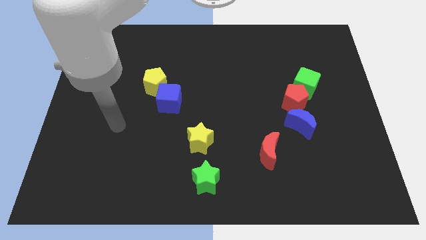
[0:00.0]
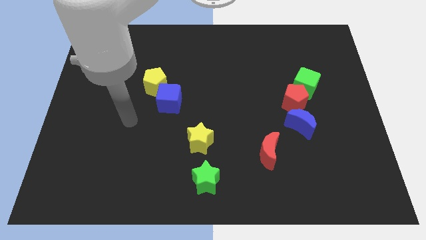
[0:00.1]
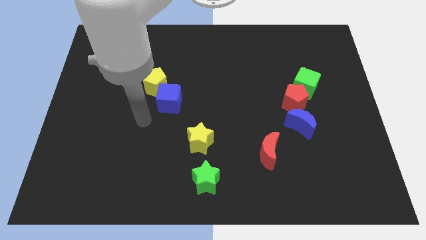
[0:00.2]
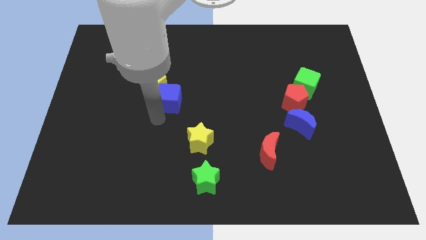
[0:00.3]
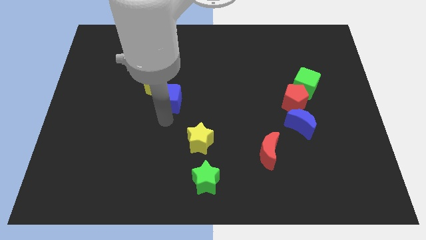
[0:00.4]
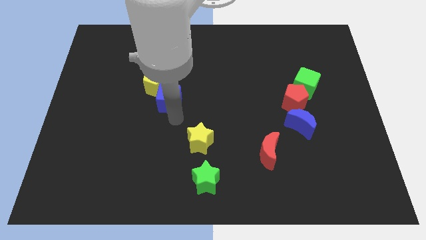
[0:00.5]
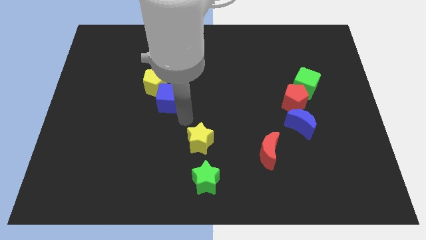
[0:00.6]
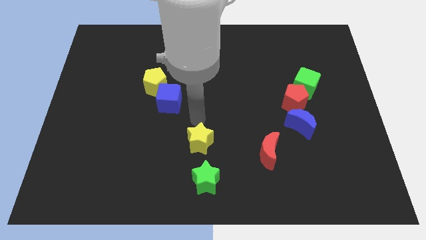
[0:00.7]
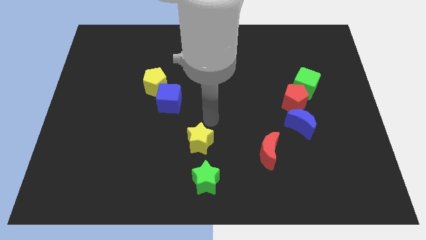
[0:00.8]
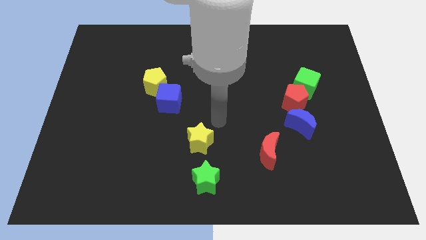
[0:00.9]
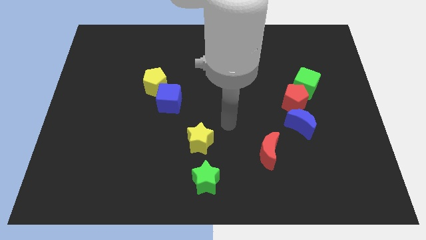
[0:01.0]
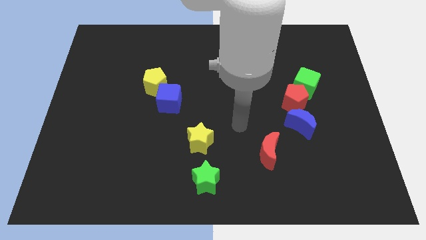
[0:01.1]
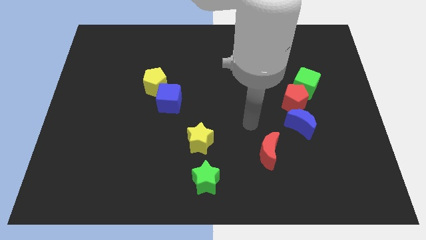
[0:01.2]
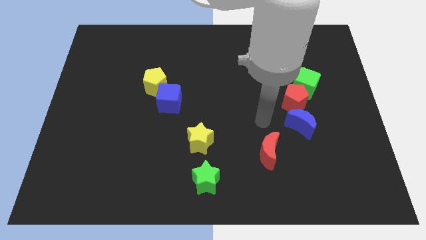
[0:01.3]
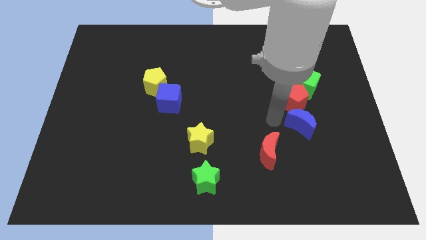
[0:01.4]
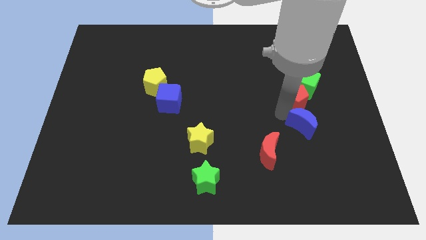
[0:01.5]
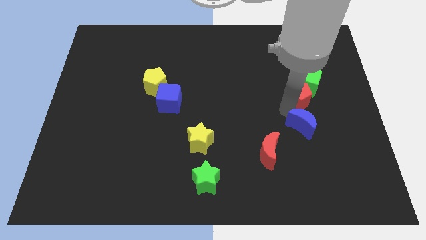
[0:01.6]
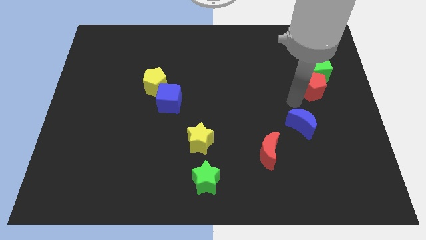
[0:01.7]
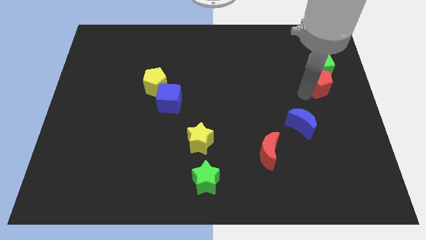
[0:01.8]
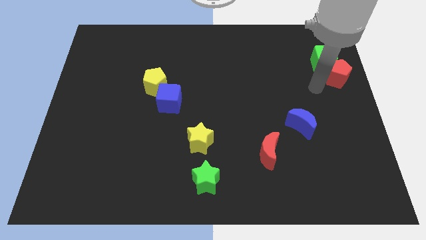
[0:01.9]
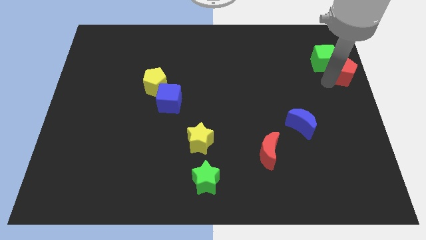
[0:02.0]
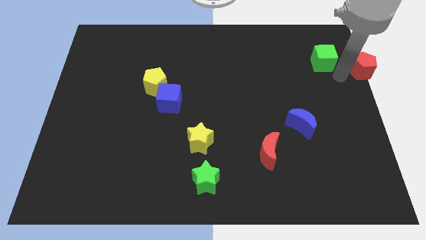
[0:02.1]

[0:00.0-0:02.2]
move the green cube away from the red pentagon

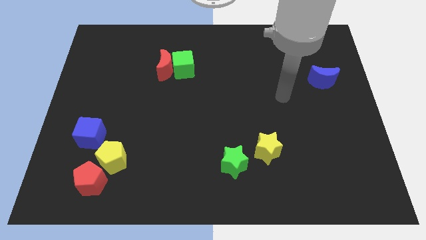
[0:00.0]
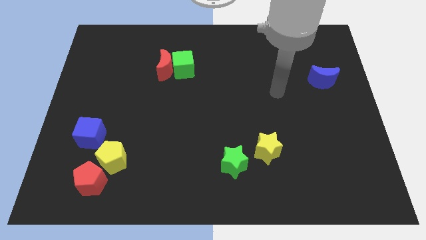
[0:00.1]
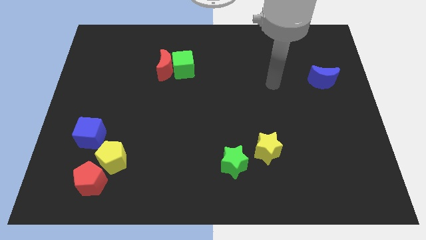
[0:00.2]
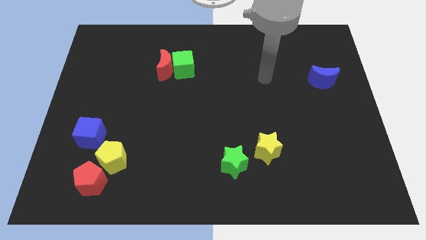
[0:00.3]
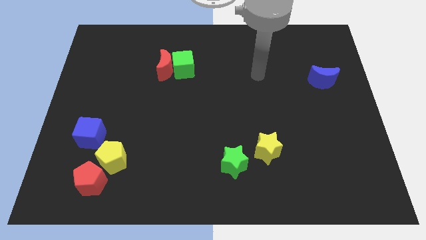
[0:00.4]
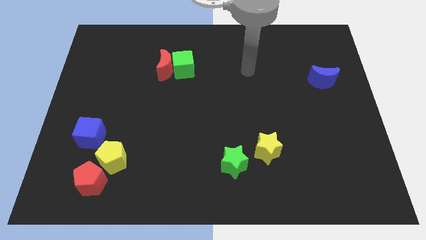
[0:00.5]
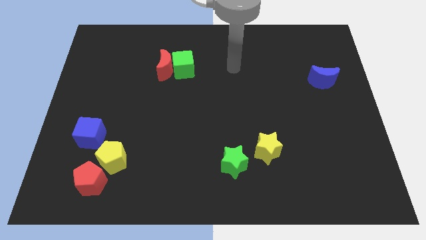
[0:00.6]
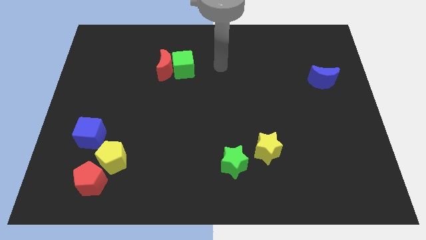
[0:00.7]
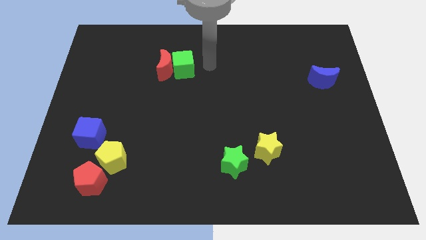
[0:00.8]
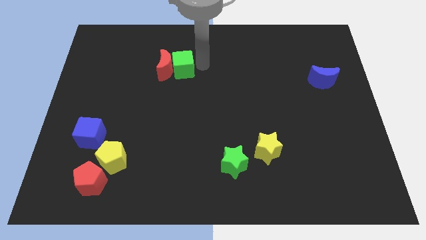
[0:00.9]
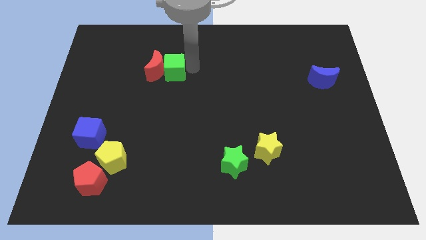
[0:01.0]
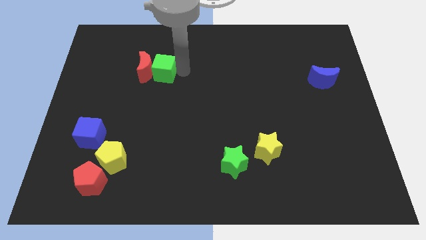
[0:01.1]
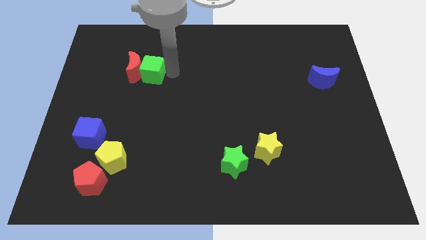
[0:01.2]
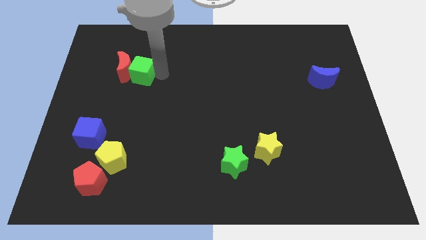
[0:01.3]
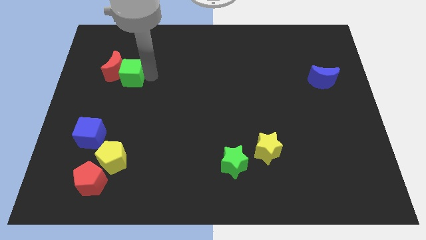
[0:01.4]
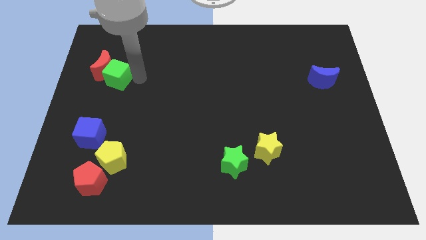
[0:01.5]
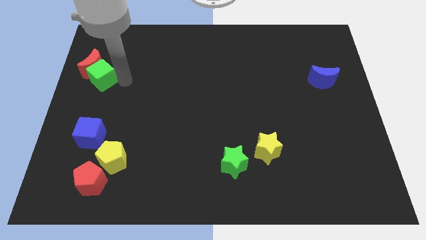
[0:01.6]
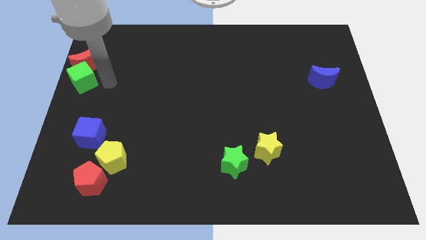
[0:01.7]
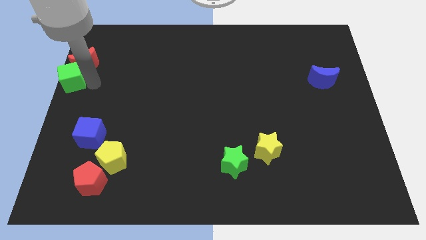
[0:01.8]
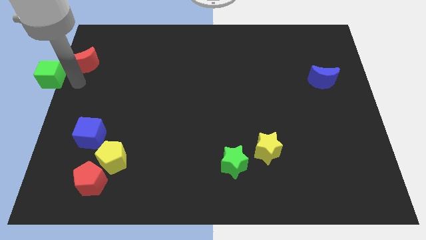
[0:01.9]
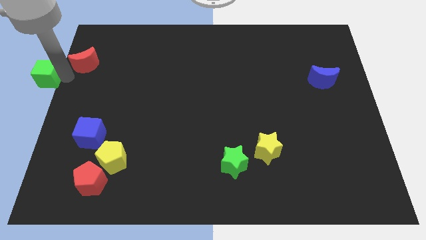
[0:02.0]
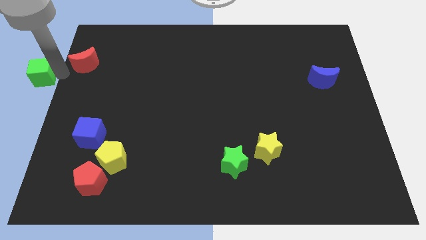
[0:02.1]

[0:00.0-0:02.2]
move the red moon away from the green cube

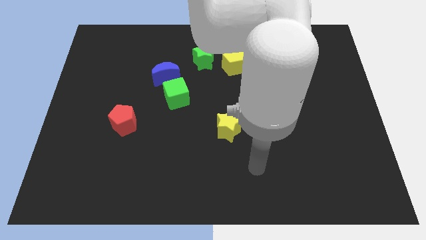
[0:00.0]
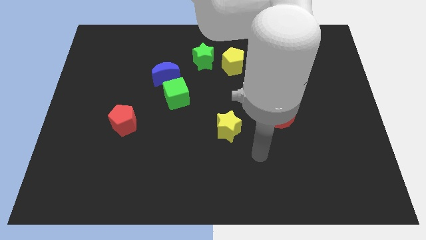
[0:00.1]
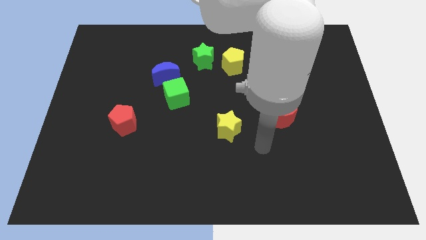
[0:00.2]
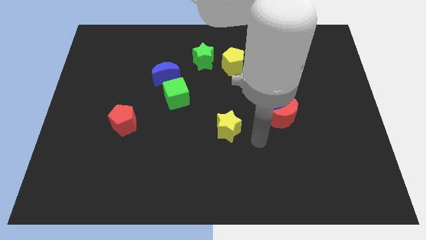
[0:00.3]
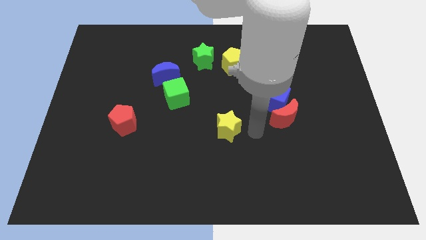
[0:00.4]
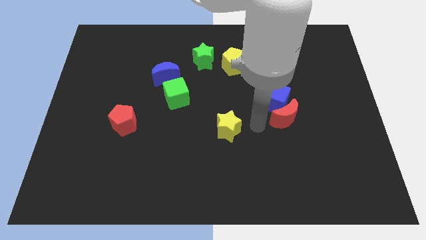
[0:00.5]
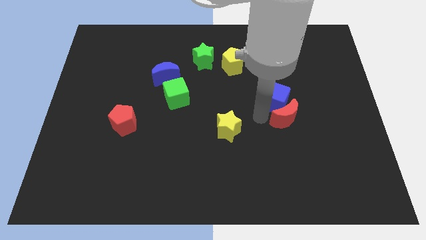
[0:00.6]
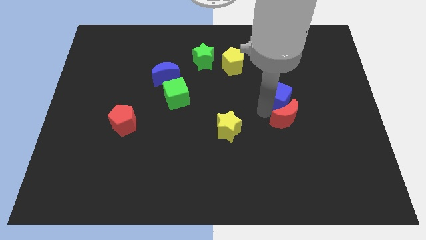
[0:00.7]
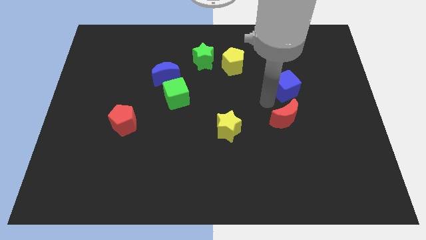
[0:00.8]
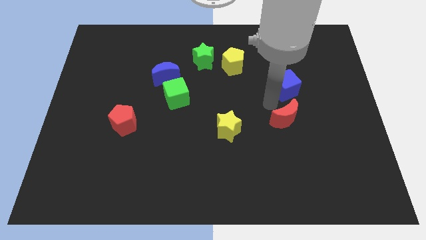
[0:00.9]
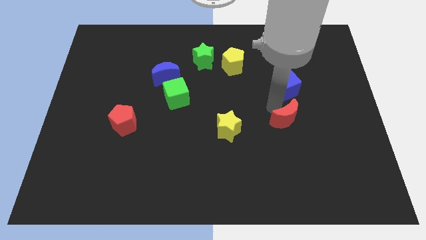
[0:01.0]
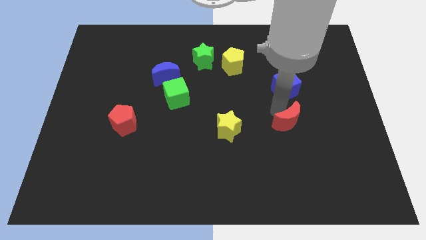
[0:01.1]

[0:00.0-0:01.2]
pull the red moon apart from the blue cube

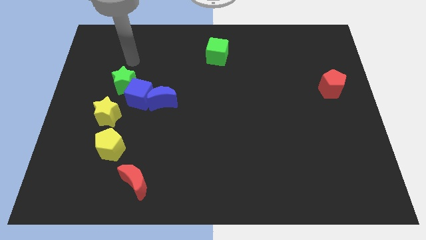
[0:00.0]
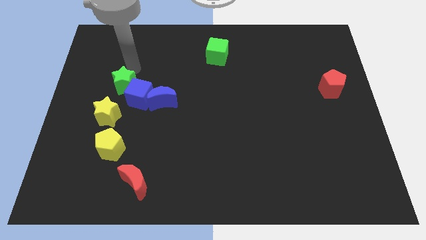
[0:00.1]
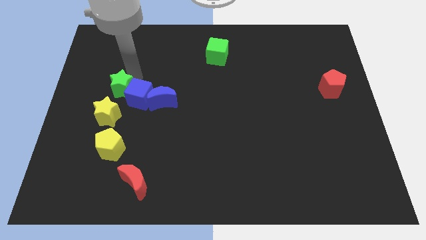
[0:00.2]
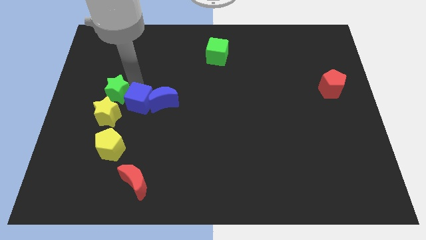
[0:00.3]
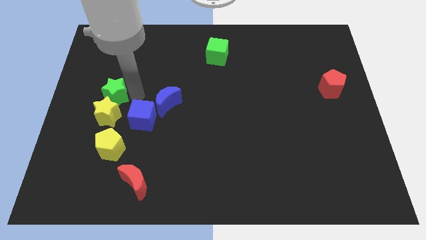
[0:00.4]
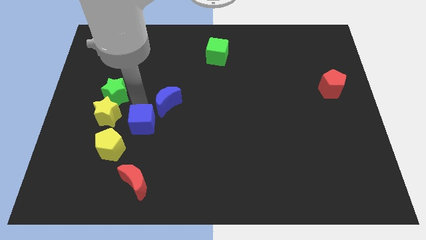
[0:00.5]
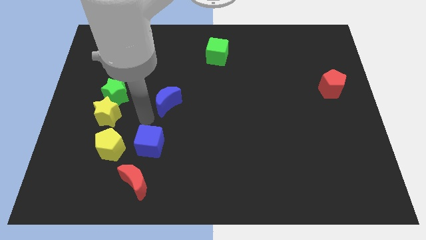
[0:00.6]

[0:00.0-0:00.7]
pull the blue moon apart from the blue cube

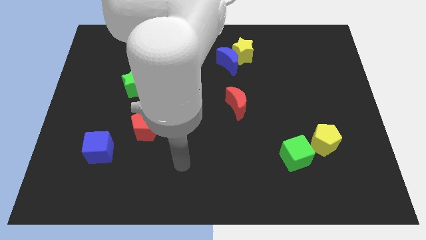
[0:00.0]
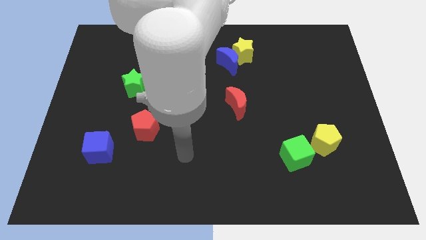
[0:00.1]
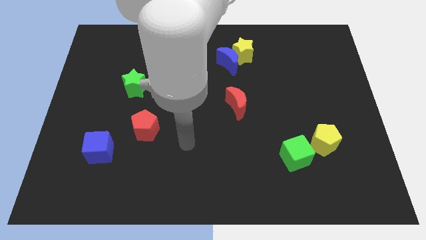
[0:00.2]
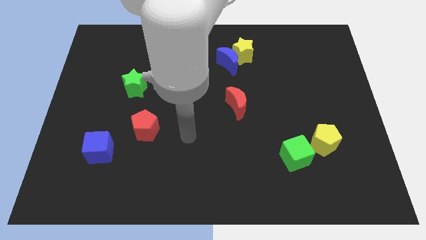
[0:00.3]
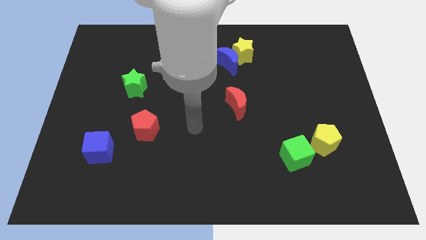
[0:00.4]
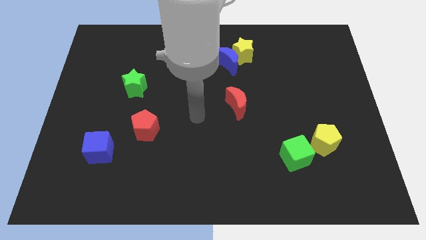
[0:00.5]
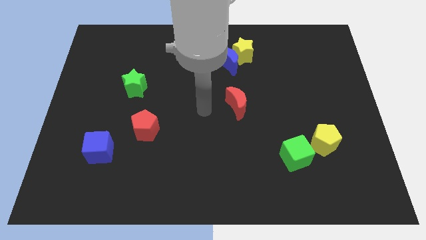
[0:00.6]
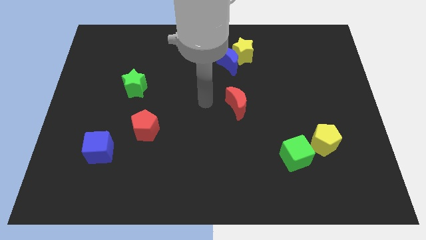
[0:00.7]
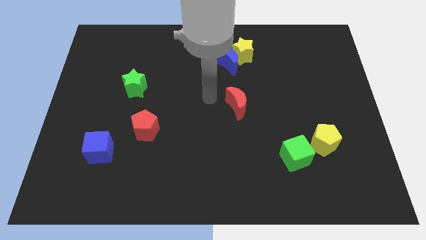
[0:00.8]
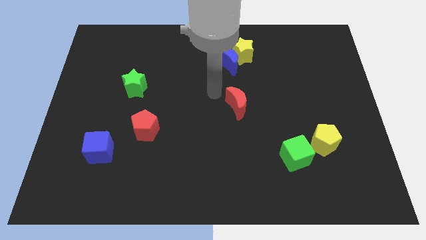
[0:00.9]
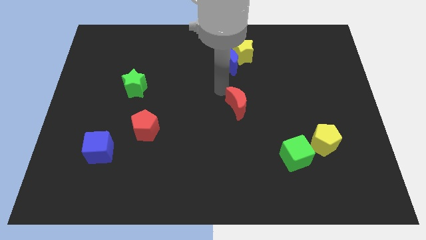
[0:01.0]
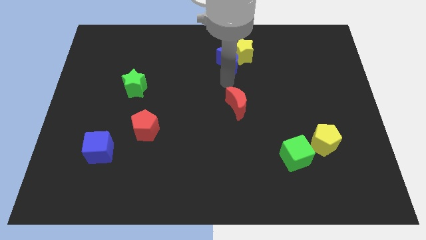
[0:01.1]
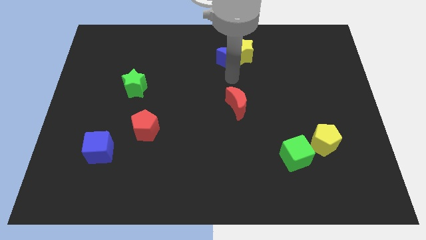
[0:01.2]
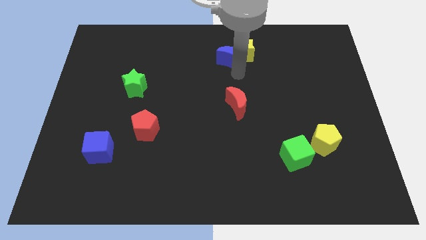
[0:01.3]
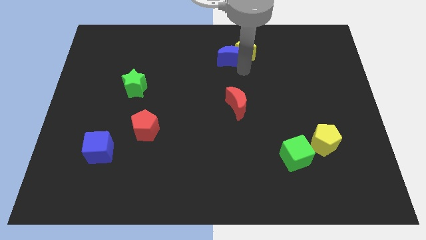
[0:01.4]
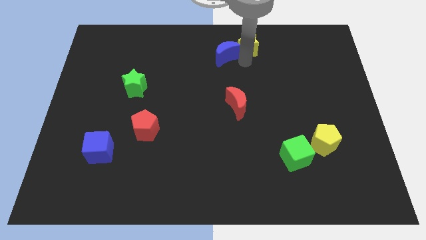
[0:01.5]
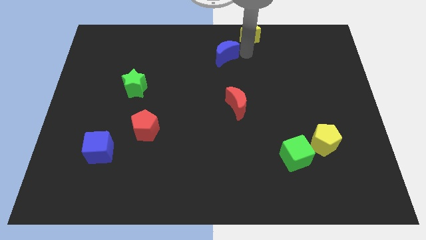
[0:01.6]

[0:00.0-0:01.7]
pull the blue moon apart from the yellow star

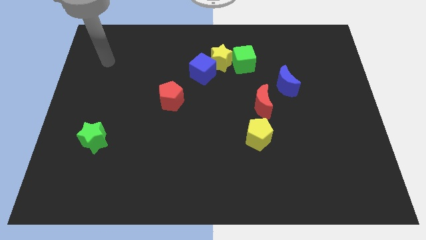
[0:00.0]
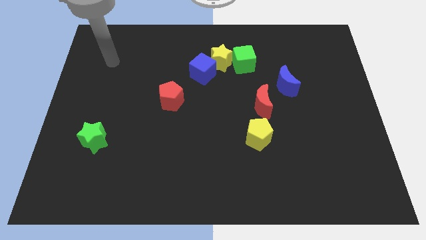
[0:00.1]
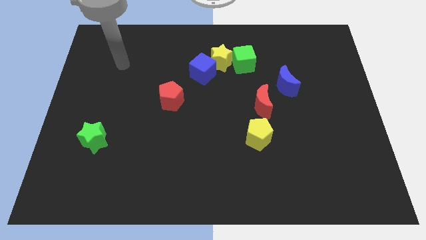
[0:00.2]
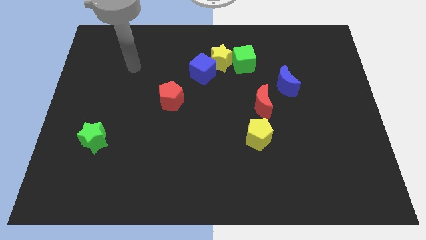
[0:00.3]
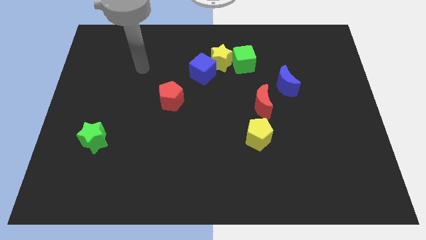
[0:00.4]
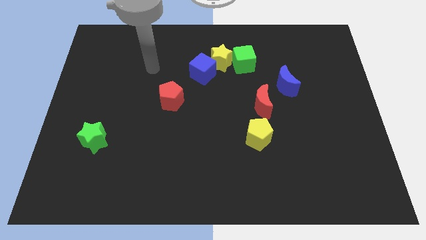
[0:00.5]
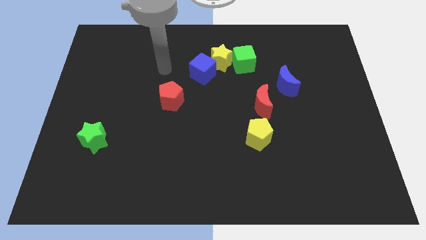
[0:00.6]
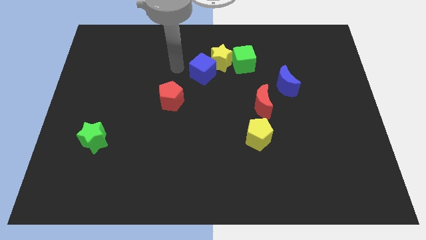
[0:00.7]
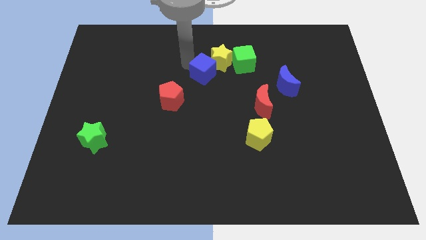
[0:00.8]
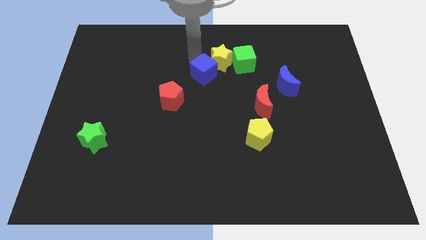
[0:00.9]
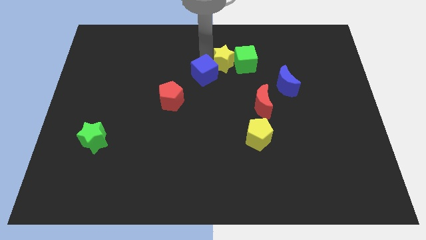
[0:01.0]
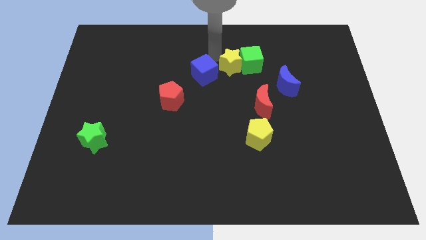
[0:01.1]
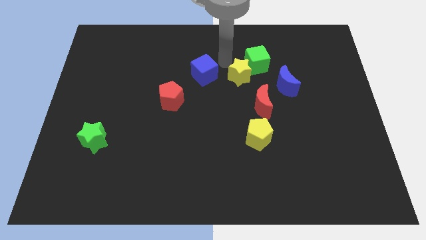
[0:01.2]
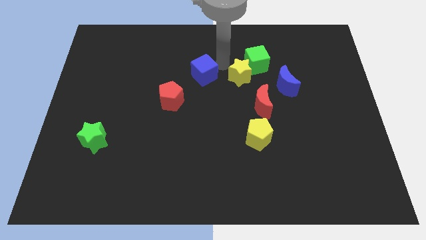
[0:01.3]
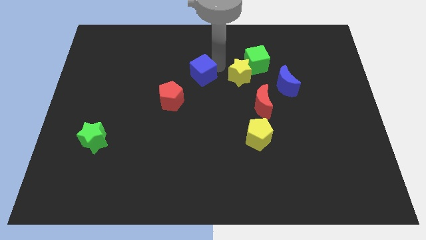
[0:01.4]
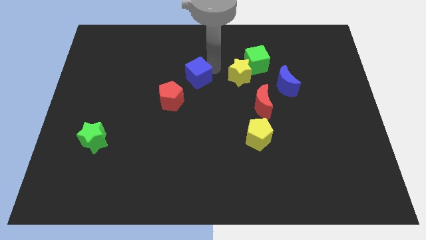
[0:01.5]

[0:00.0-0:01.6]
pull the blue cube apart from the yellow star
